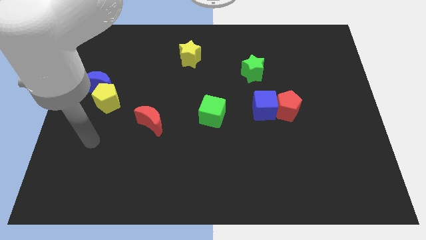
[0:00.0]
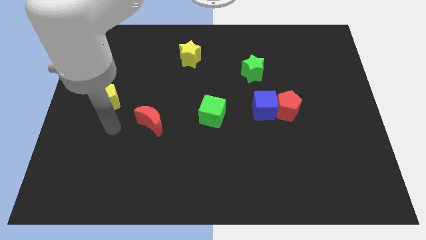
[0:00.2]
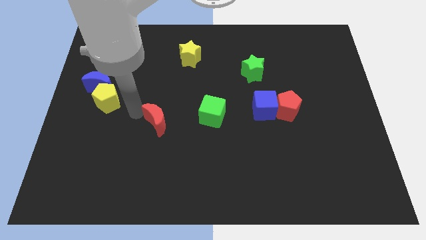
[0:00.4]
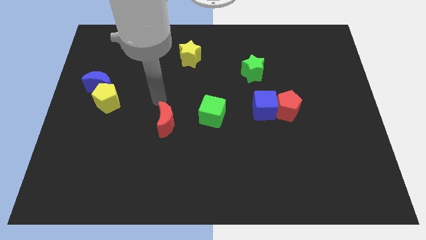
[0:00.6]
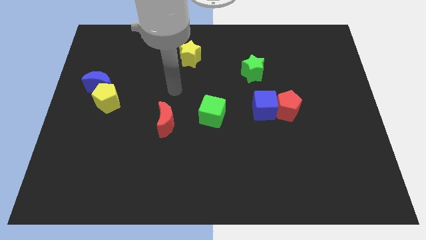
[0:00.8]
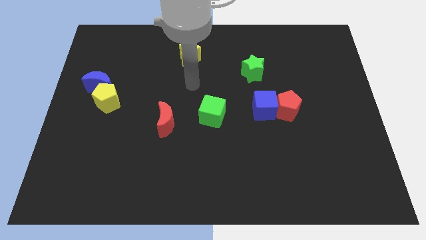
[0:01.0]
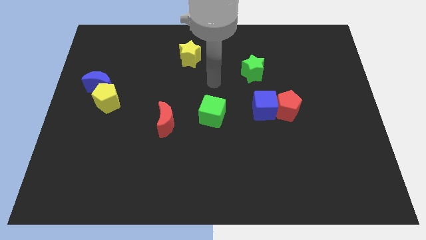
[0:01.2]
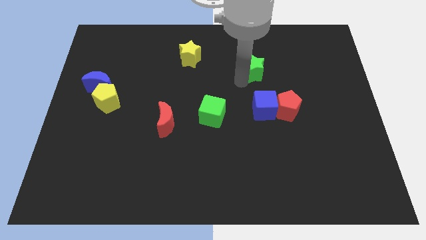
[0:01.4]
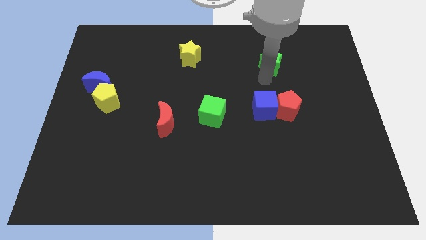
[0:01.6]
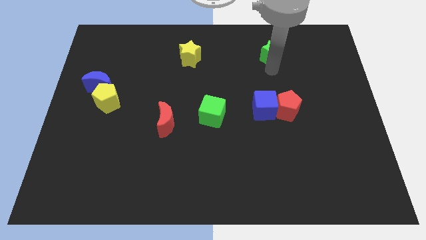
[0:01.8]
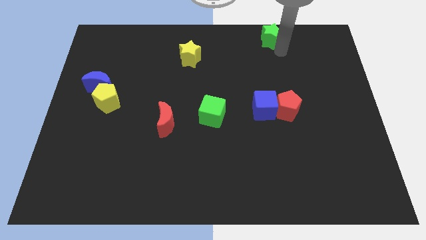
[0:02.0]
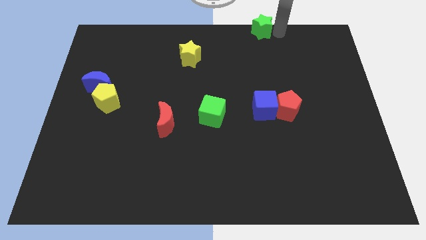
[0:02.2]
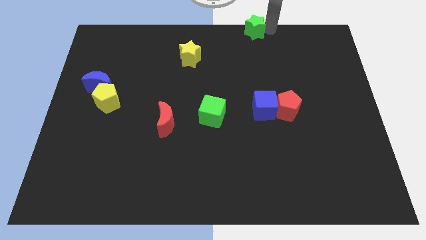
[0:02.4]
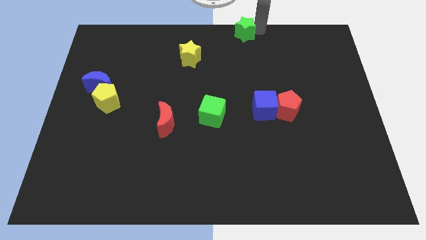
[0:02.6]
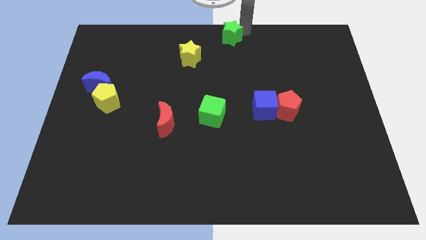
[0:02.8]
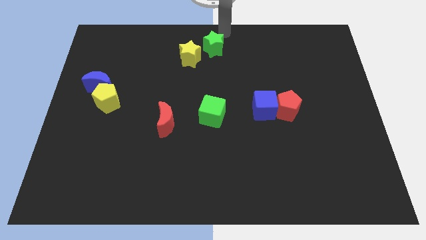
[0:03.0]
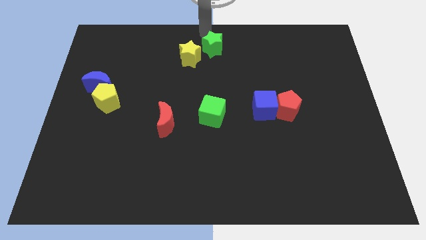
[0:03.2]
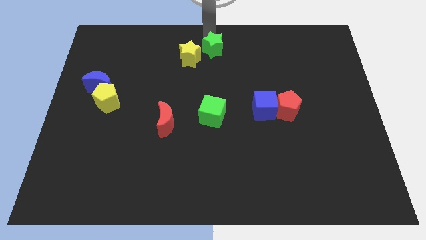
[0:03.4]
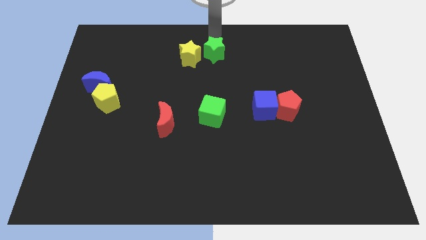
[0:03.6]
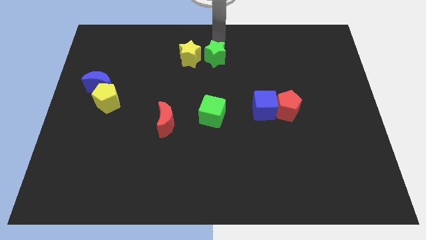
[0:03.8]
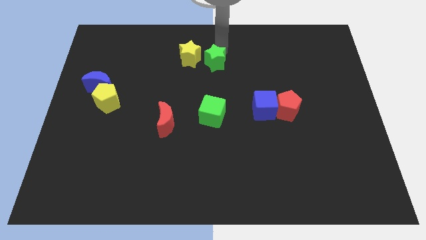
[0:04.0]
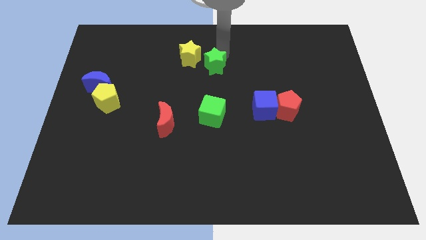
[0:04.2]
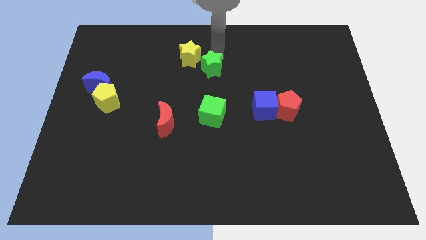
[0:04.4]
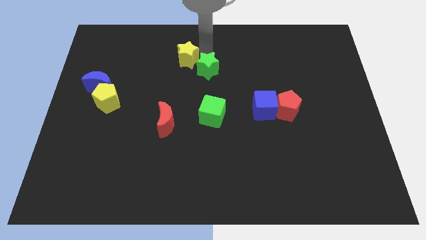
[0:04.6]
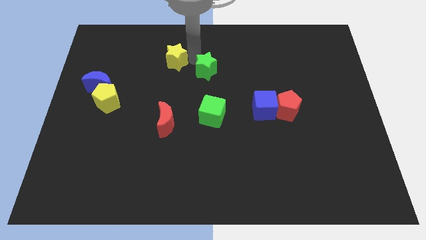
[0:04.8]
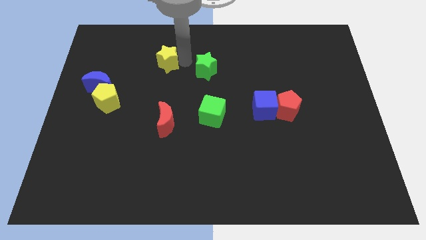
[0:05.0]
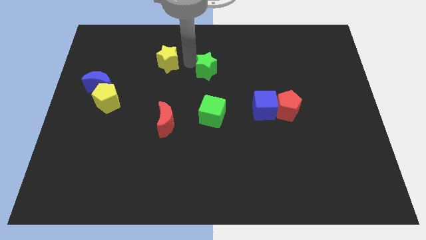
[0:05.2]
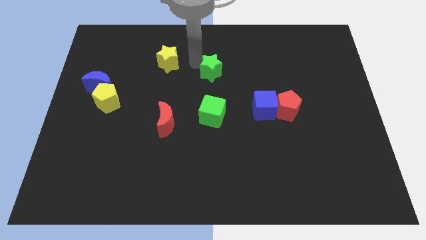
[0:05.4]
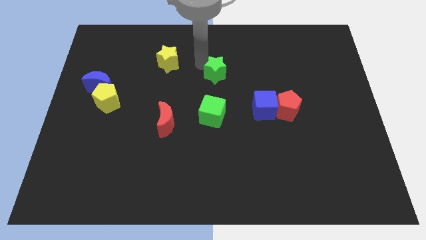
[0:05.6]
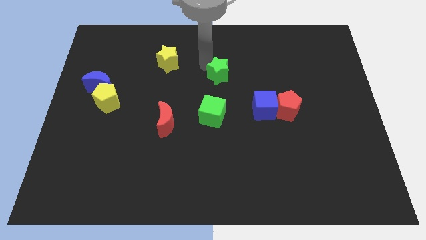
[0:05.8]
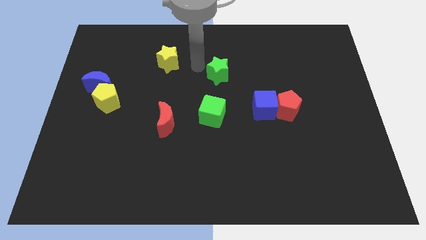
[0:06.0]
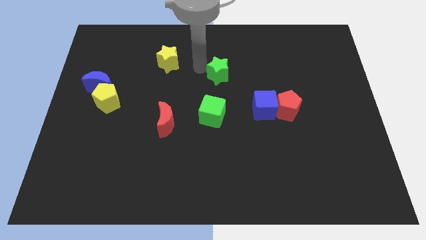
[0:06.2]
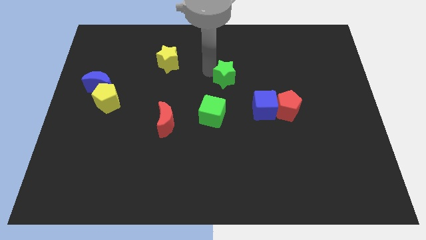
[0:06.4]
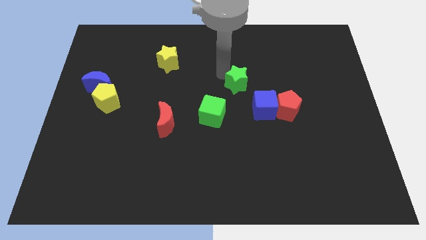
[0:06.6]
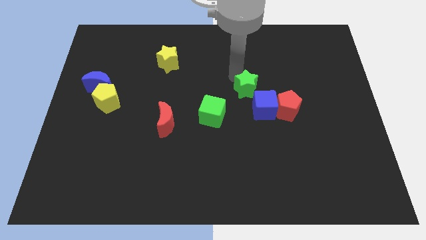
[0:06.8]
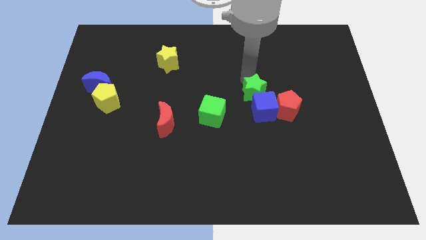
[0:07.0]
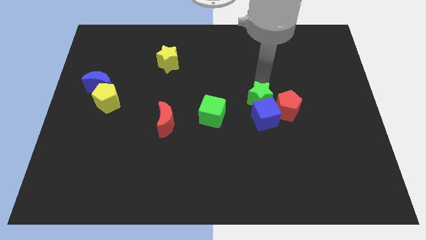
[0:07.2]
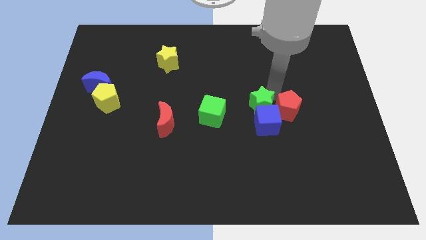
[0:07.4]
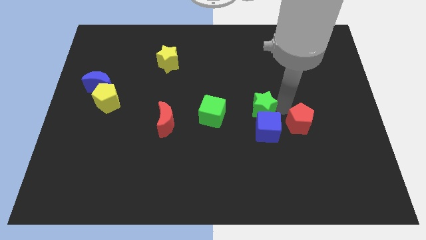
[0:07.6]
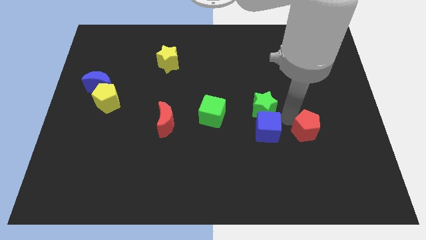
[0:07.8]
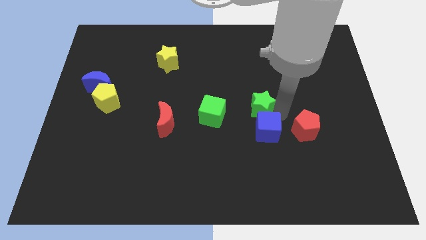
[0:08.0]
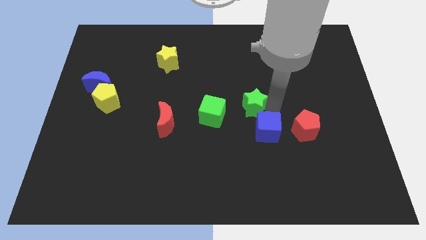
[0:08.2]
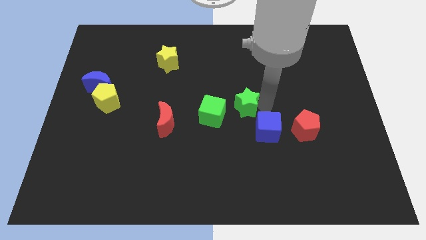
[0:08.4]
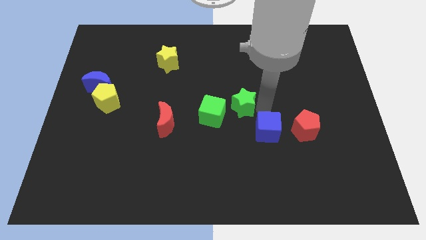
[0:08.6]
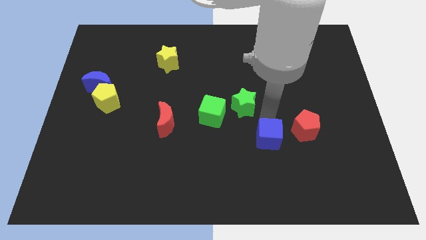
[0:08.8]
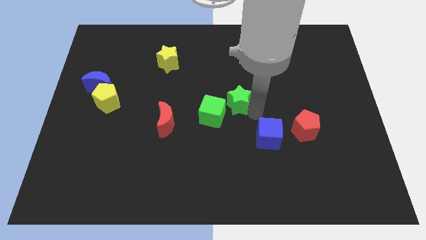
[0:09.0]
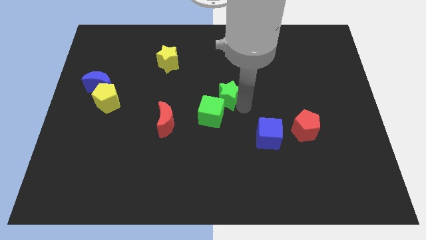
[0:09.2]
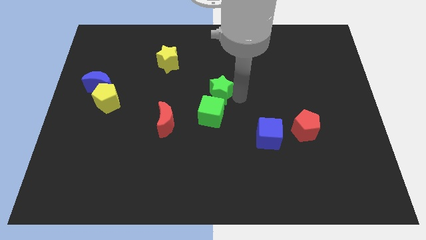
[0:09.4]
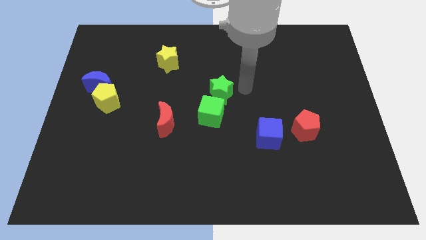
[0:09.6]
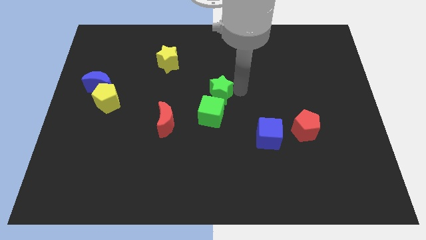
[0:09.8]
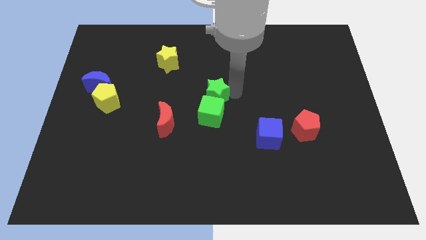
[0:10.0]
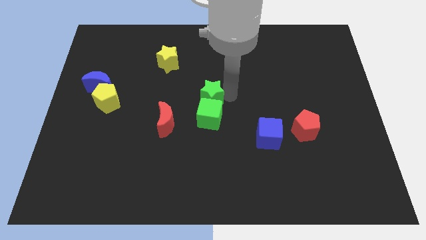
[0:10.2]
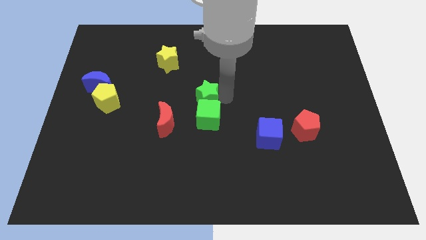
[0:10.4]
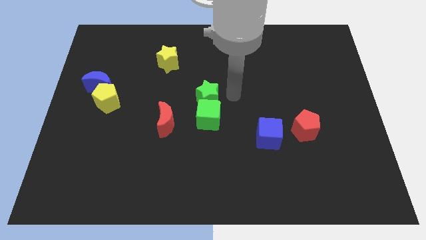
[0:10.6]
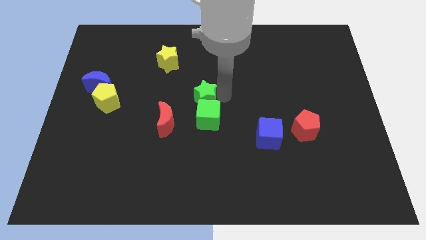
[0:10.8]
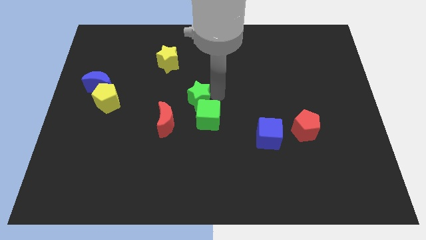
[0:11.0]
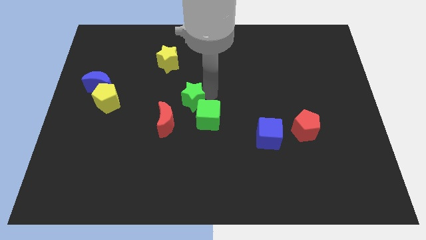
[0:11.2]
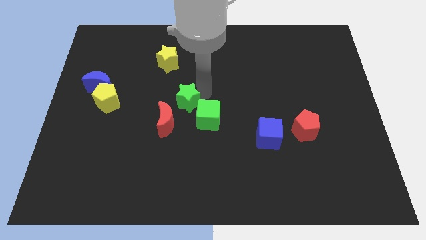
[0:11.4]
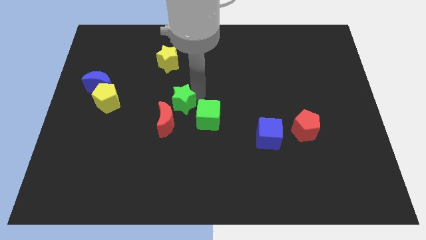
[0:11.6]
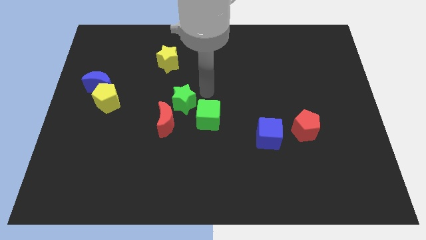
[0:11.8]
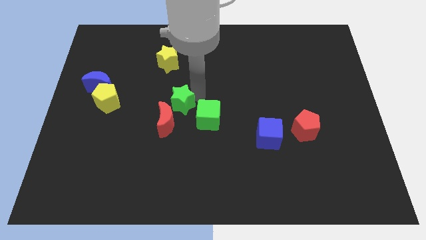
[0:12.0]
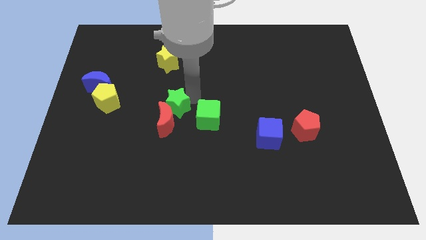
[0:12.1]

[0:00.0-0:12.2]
slide the green star to the red moon

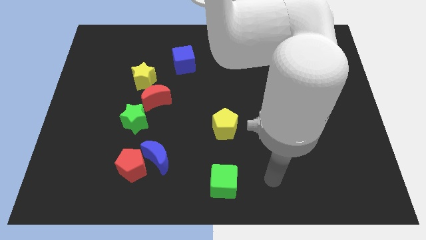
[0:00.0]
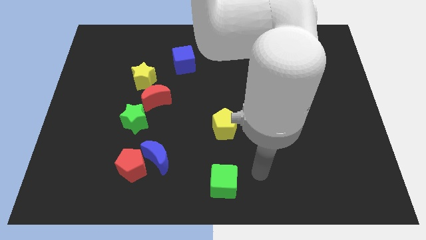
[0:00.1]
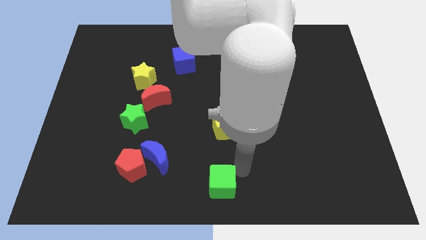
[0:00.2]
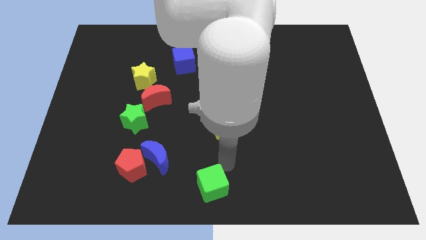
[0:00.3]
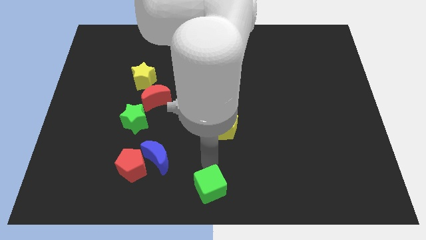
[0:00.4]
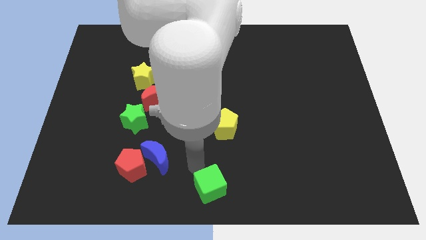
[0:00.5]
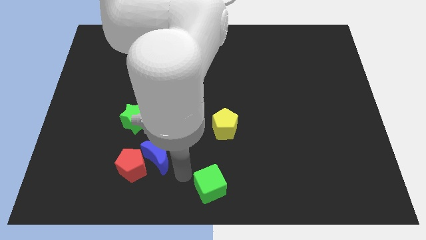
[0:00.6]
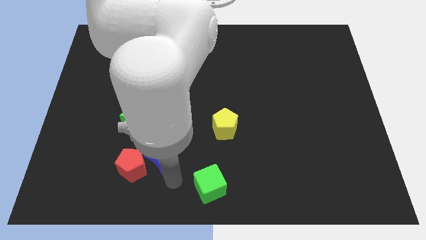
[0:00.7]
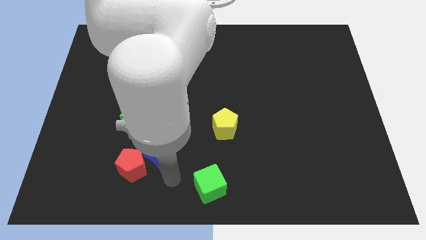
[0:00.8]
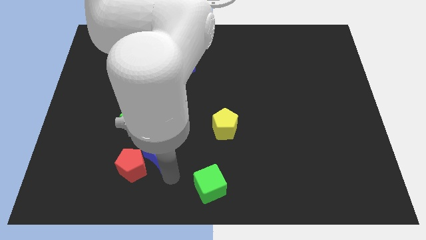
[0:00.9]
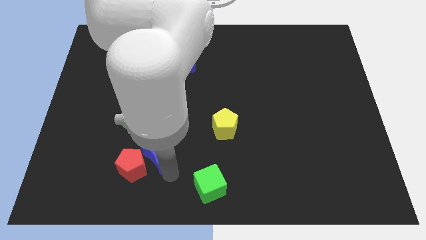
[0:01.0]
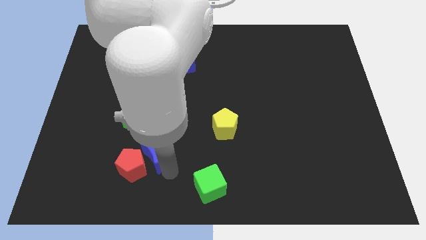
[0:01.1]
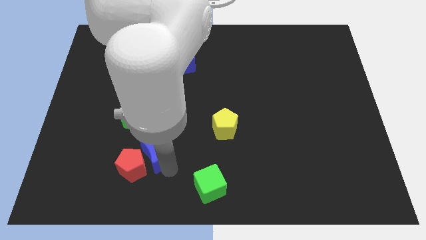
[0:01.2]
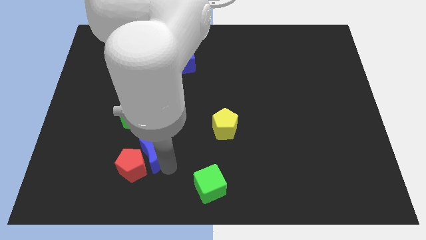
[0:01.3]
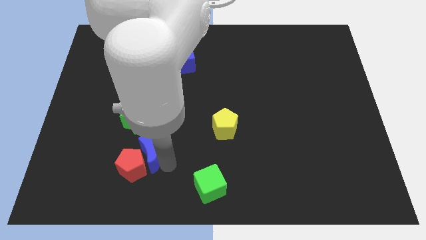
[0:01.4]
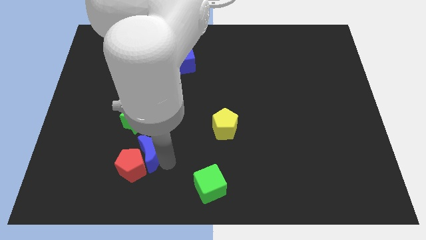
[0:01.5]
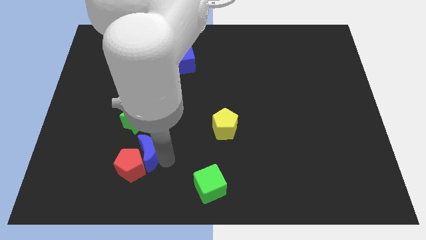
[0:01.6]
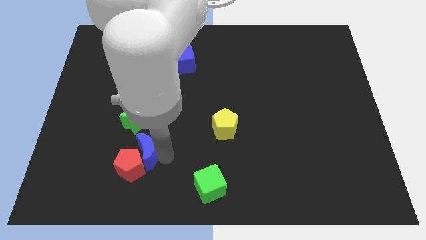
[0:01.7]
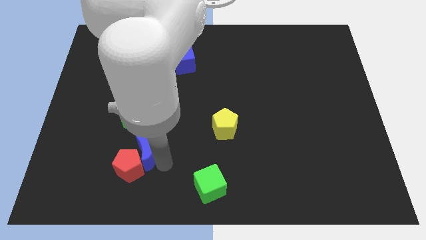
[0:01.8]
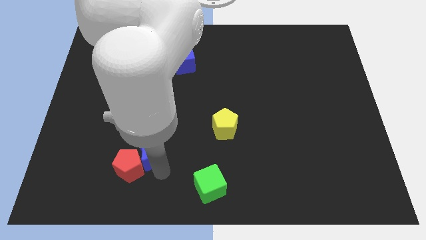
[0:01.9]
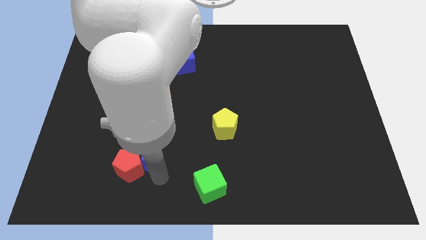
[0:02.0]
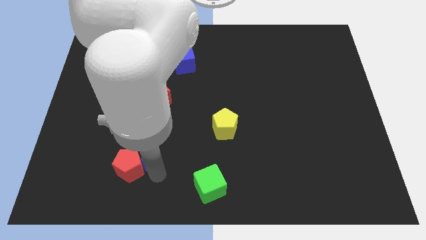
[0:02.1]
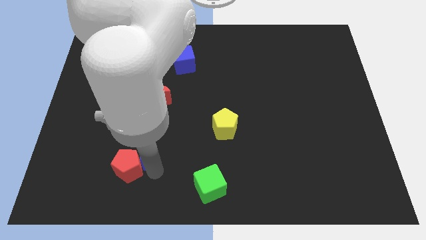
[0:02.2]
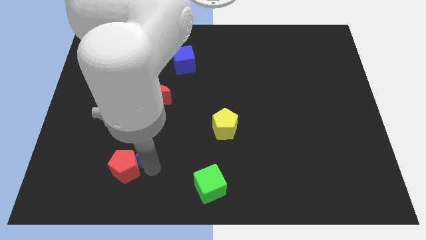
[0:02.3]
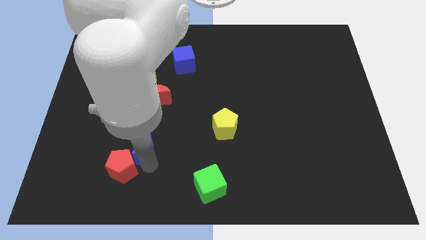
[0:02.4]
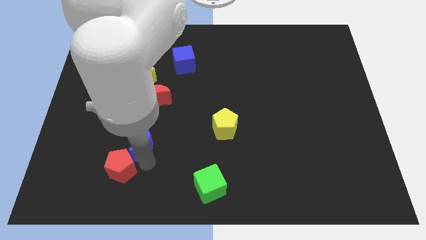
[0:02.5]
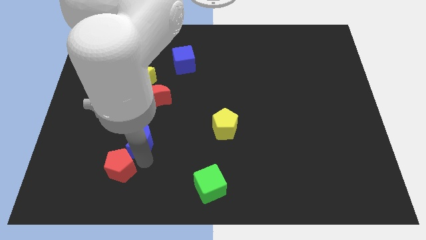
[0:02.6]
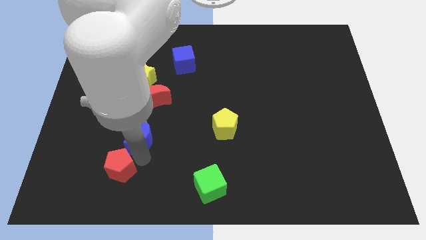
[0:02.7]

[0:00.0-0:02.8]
slide the blue moon to the green star
